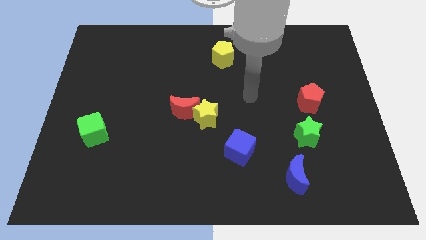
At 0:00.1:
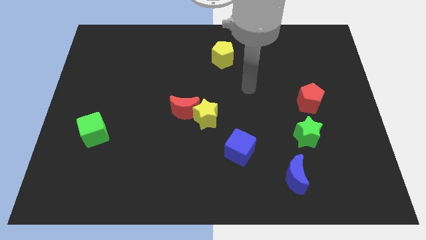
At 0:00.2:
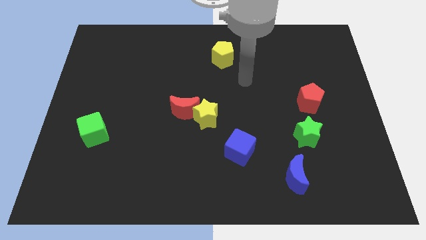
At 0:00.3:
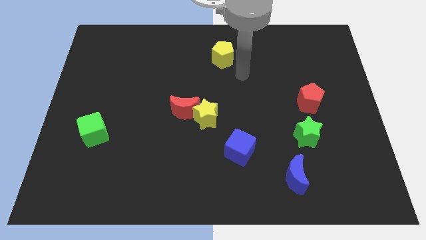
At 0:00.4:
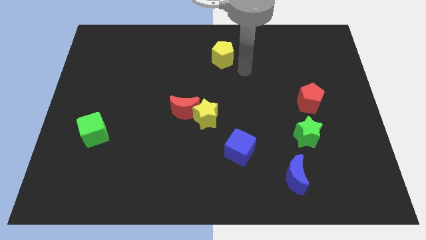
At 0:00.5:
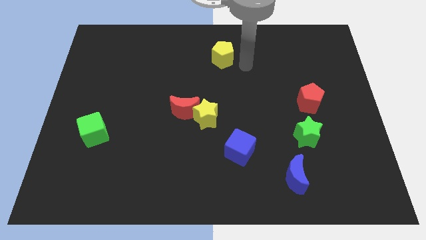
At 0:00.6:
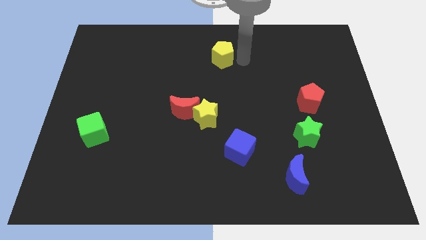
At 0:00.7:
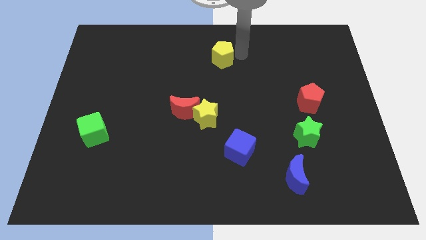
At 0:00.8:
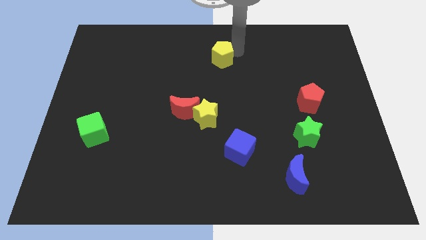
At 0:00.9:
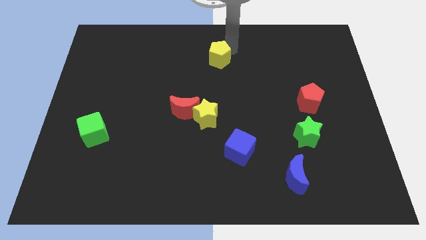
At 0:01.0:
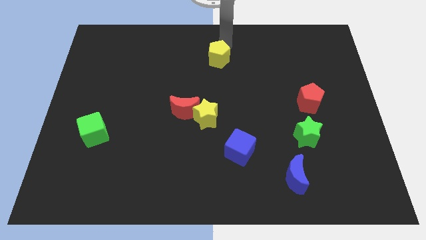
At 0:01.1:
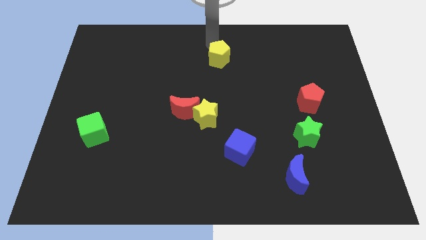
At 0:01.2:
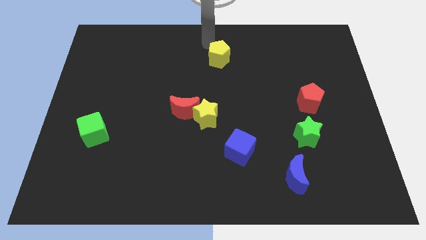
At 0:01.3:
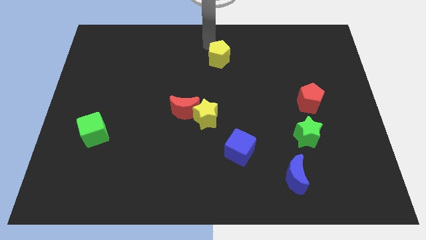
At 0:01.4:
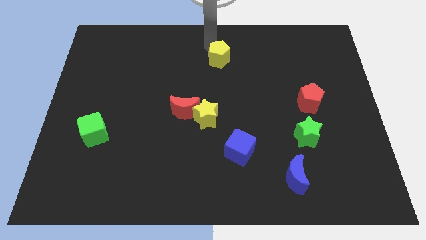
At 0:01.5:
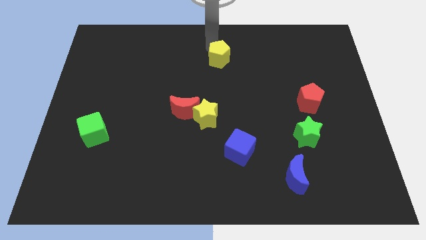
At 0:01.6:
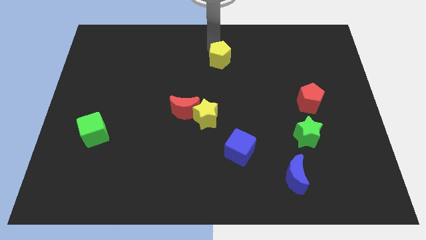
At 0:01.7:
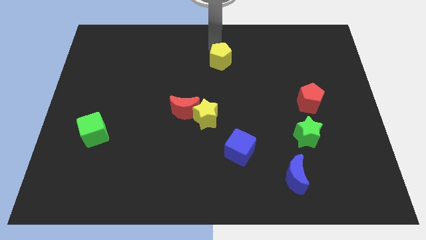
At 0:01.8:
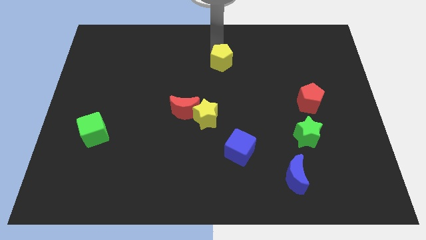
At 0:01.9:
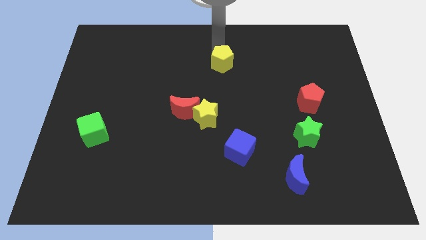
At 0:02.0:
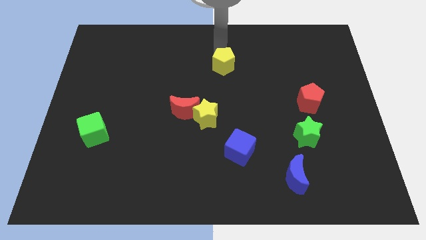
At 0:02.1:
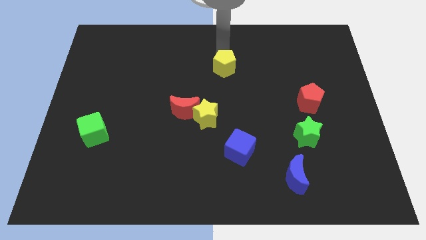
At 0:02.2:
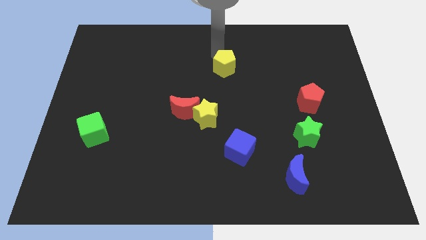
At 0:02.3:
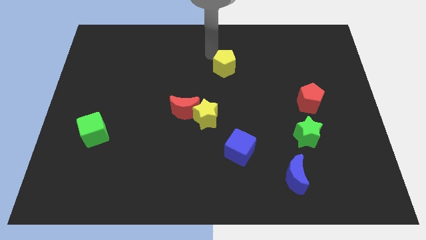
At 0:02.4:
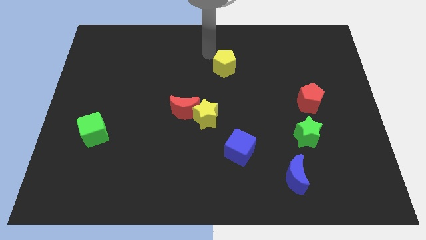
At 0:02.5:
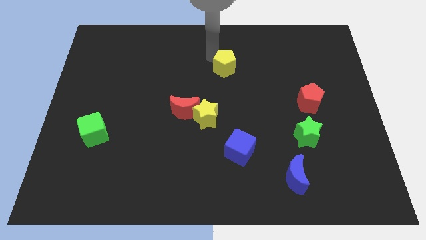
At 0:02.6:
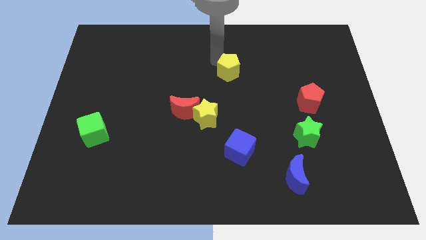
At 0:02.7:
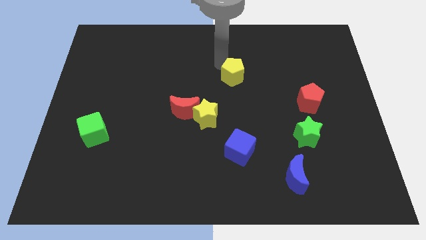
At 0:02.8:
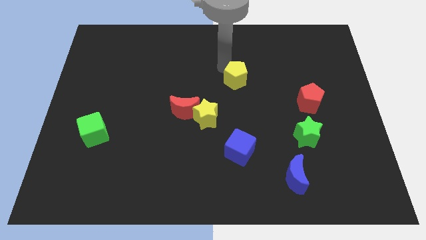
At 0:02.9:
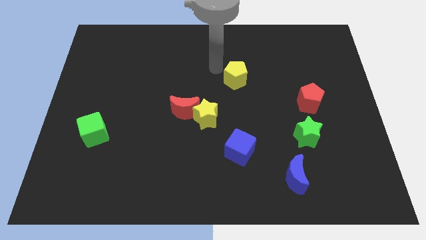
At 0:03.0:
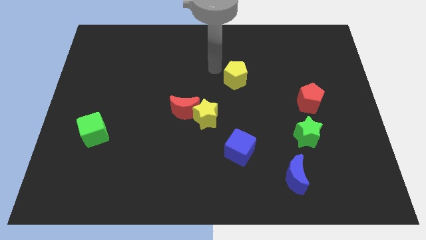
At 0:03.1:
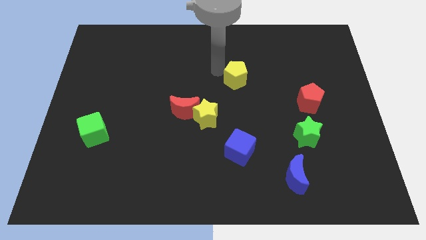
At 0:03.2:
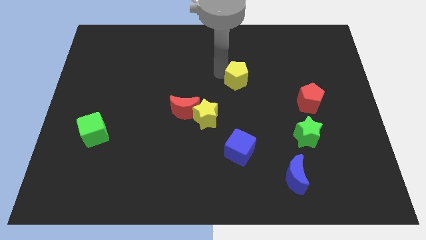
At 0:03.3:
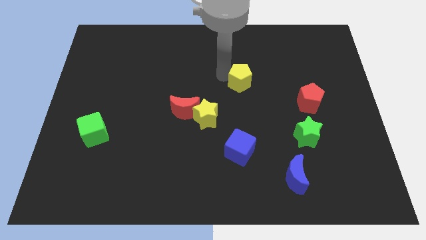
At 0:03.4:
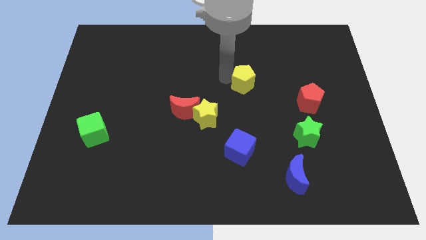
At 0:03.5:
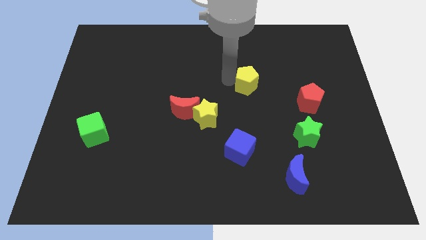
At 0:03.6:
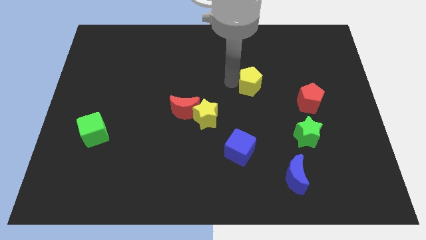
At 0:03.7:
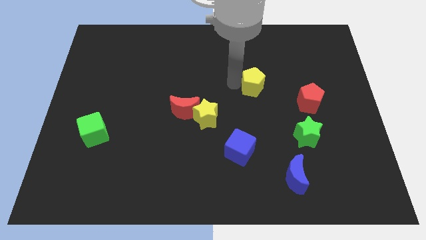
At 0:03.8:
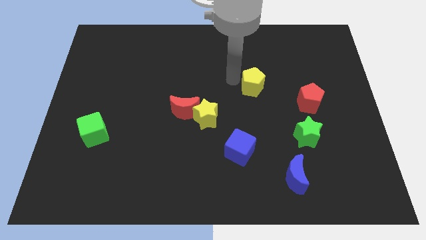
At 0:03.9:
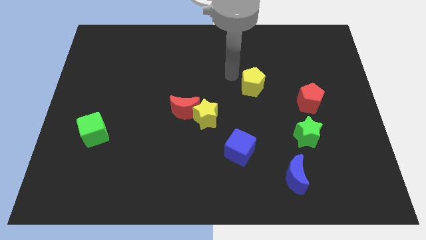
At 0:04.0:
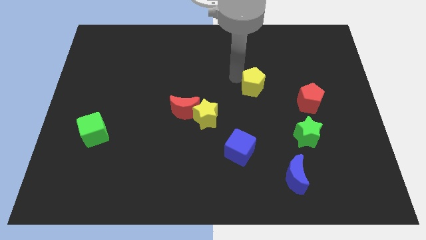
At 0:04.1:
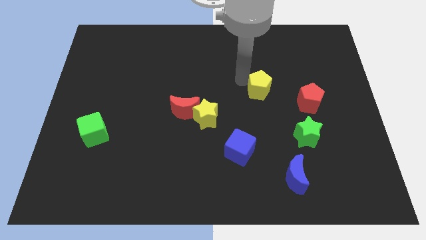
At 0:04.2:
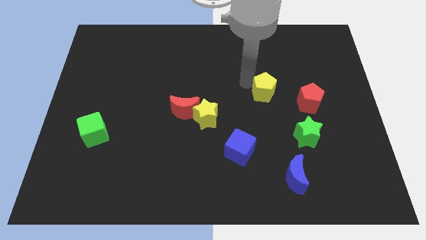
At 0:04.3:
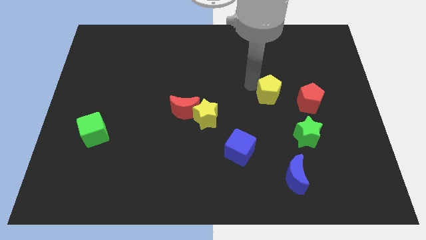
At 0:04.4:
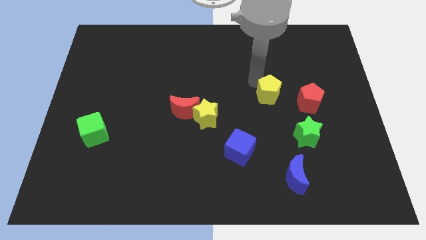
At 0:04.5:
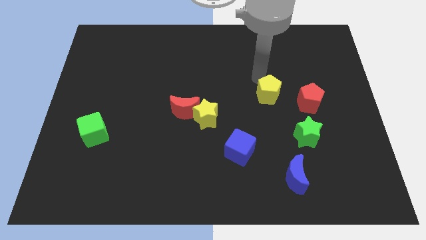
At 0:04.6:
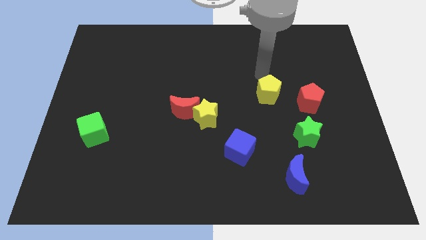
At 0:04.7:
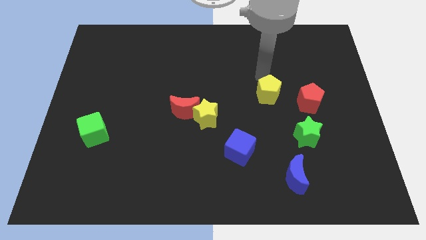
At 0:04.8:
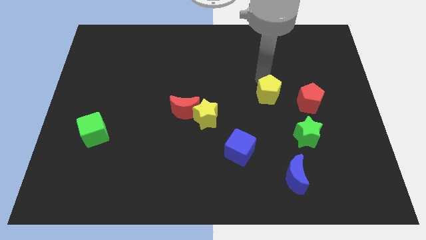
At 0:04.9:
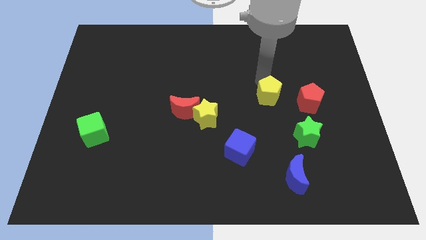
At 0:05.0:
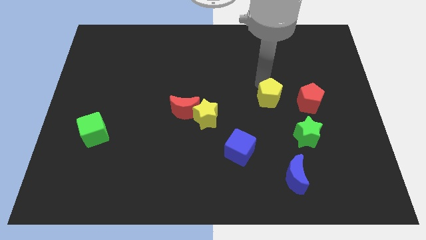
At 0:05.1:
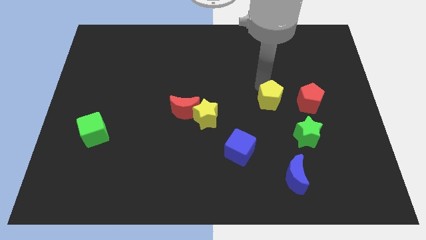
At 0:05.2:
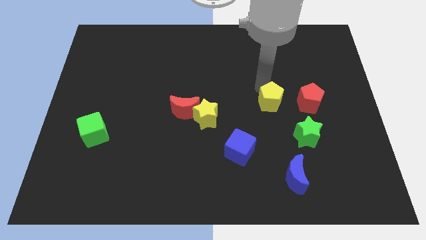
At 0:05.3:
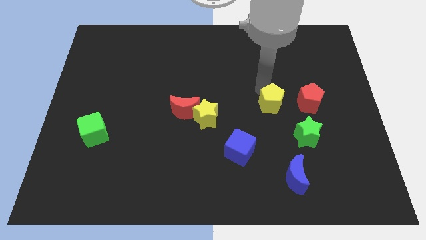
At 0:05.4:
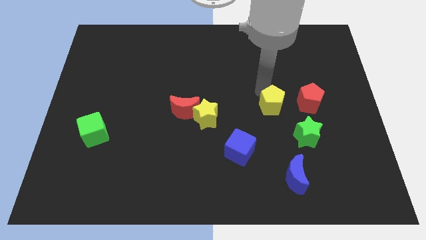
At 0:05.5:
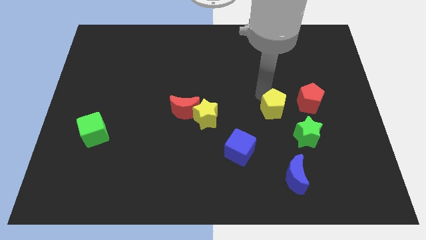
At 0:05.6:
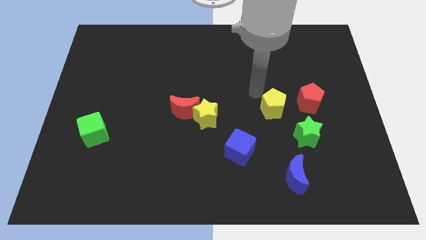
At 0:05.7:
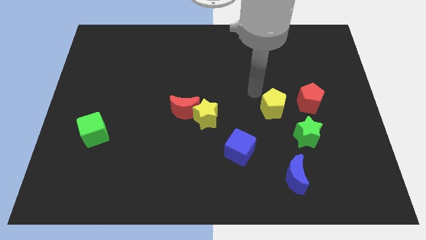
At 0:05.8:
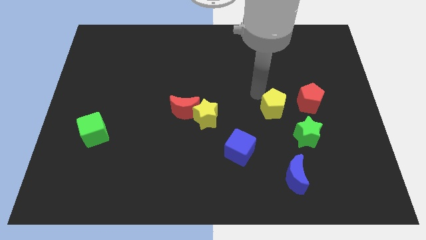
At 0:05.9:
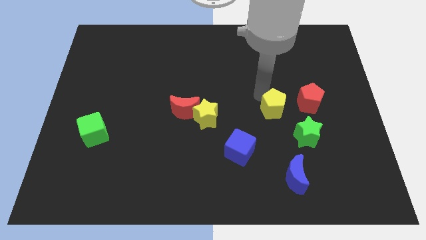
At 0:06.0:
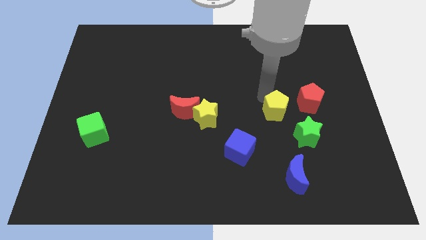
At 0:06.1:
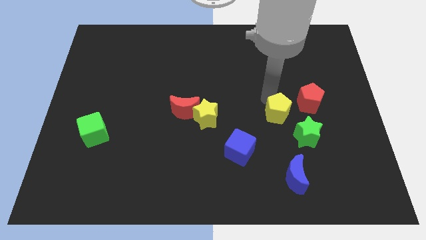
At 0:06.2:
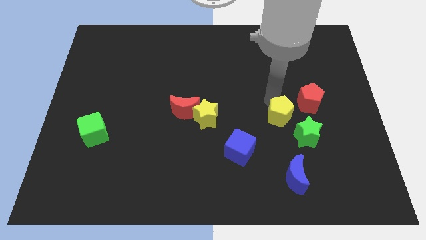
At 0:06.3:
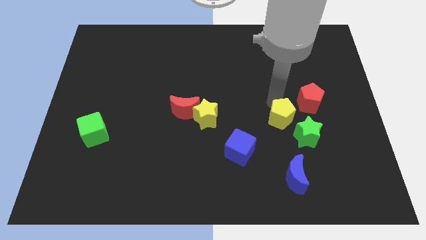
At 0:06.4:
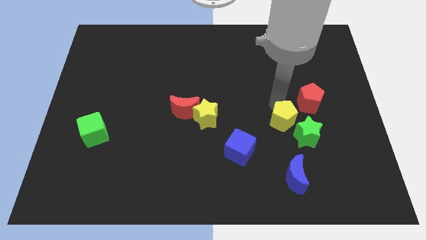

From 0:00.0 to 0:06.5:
push the yellow pentagon towards the green star

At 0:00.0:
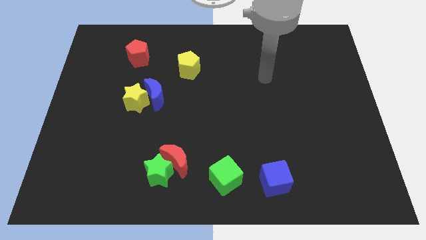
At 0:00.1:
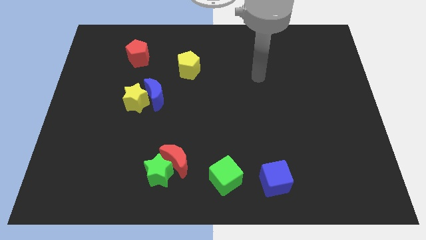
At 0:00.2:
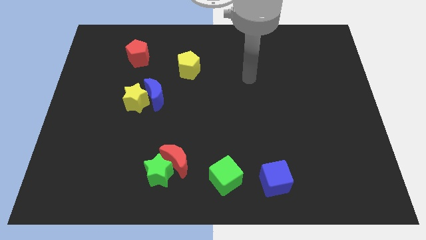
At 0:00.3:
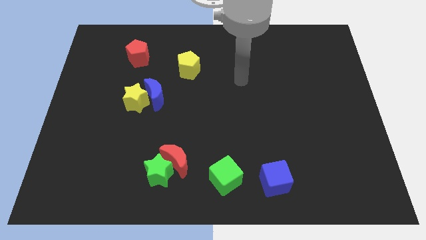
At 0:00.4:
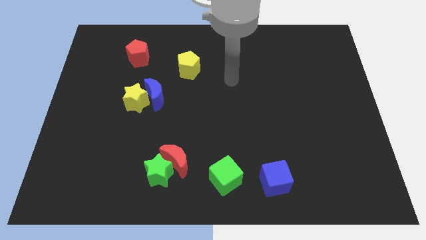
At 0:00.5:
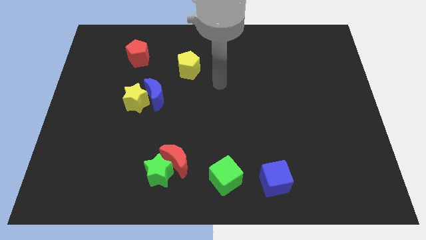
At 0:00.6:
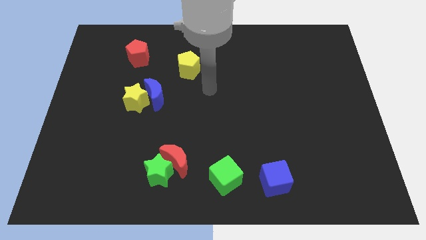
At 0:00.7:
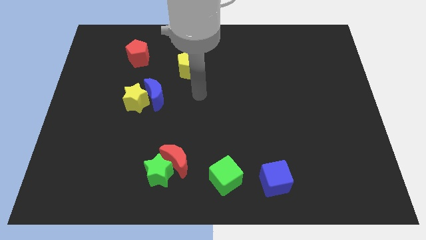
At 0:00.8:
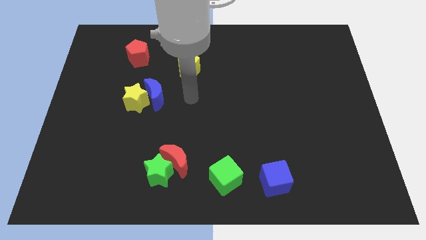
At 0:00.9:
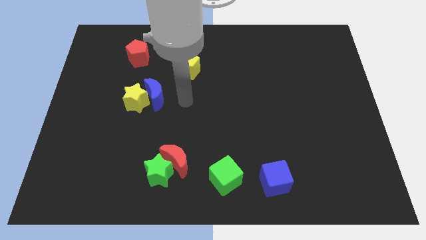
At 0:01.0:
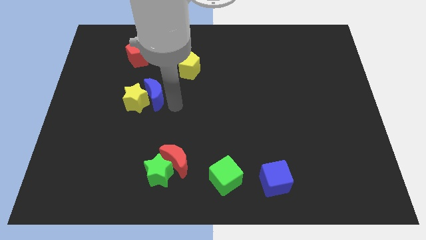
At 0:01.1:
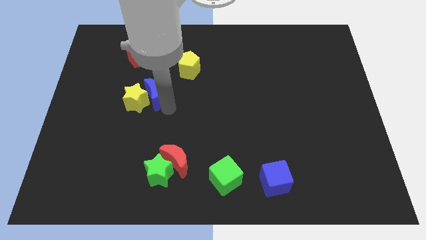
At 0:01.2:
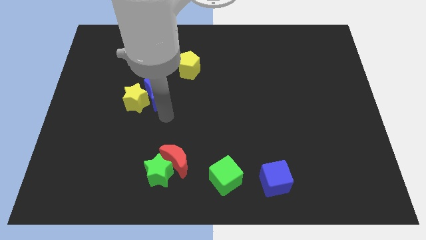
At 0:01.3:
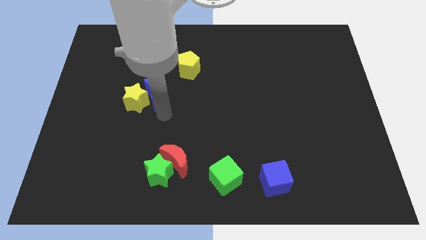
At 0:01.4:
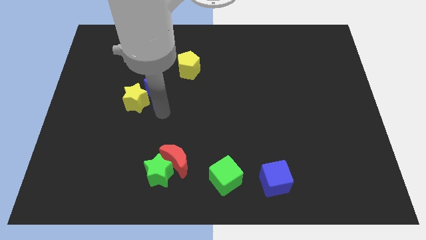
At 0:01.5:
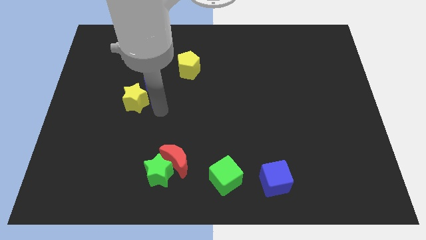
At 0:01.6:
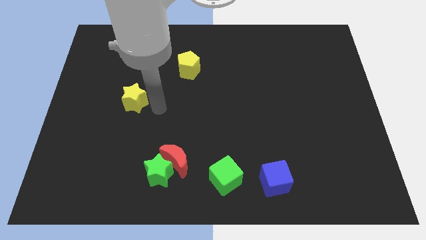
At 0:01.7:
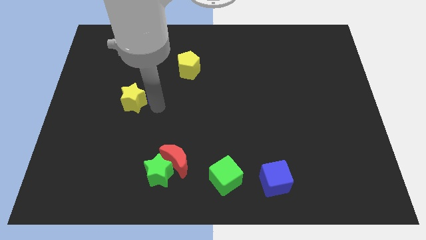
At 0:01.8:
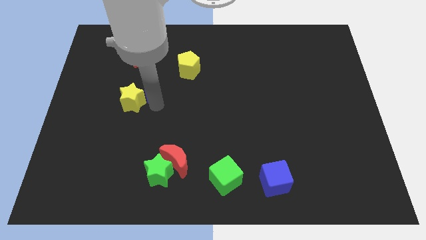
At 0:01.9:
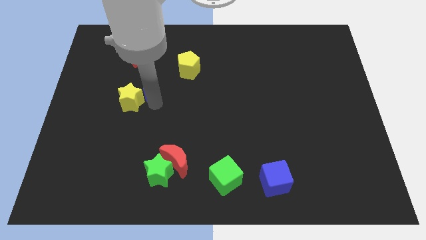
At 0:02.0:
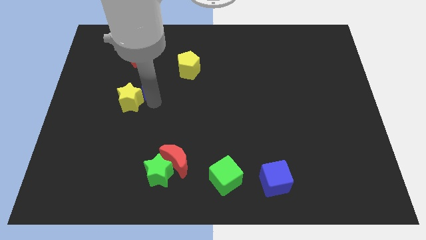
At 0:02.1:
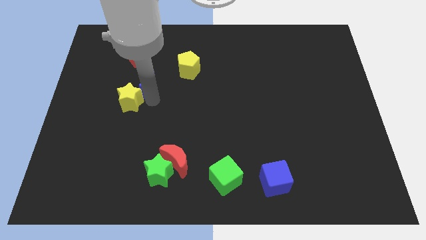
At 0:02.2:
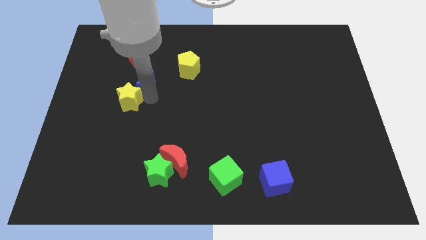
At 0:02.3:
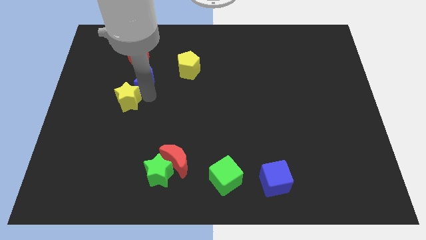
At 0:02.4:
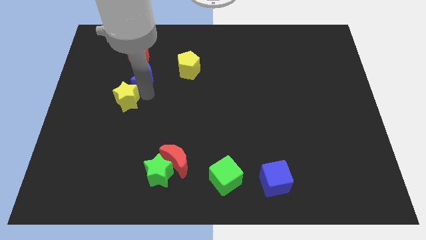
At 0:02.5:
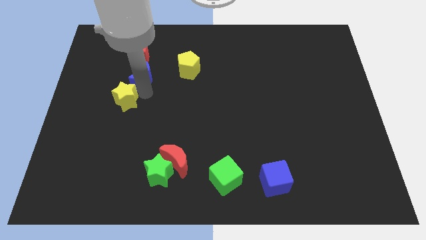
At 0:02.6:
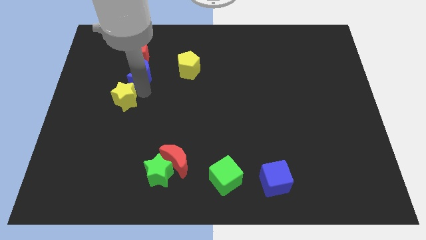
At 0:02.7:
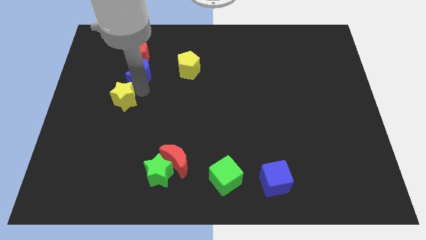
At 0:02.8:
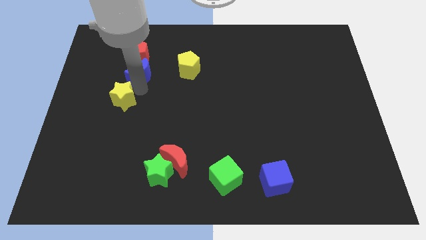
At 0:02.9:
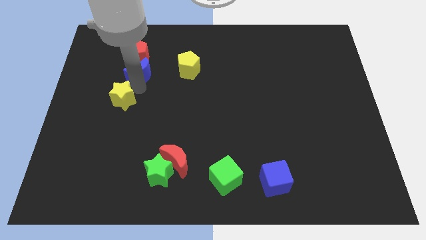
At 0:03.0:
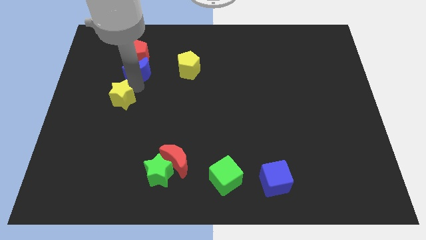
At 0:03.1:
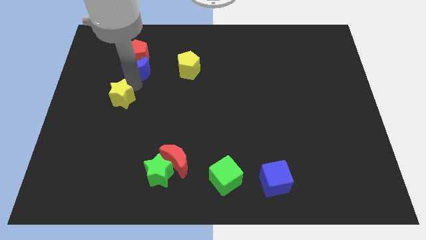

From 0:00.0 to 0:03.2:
slide the blue moon next to the red pentagon
